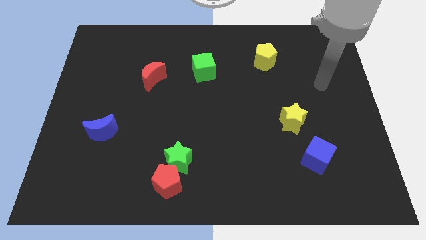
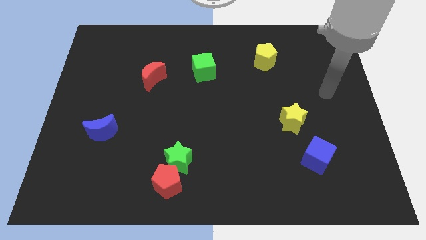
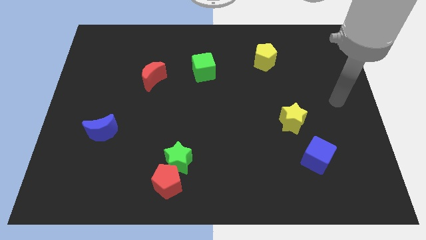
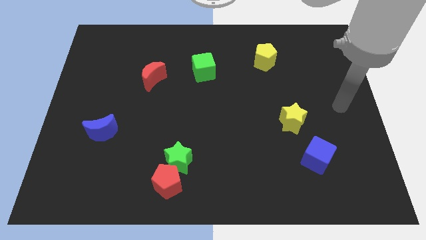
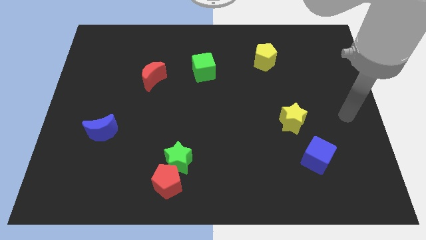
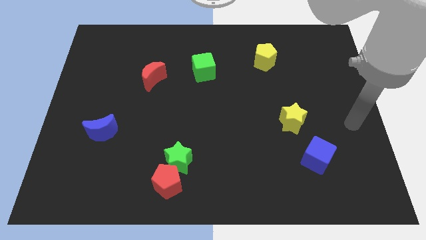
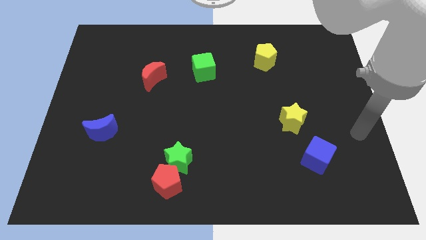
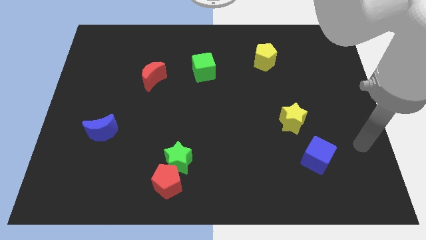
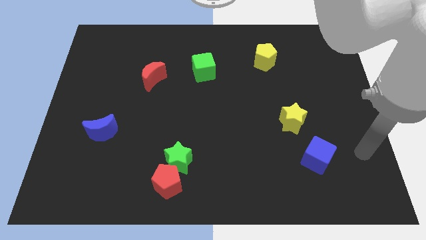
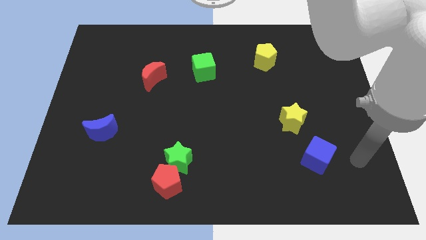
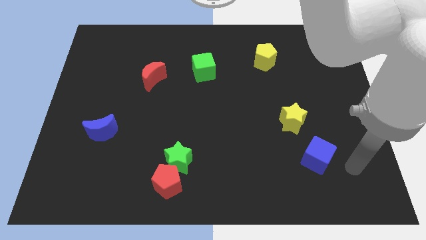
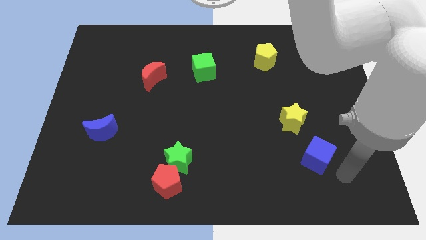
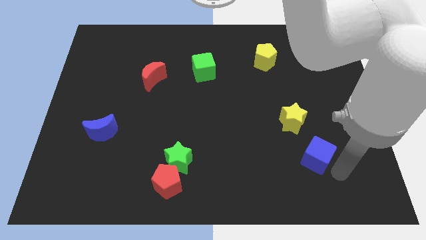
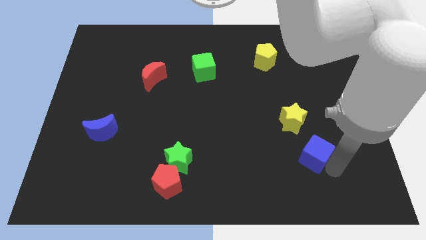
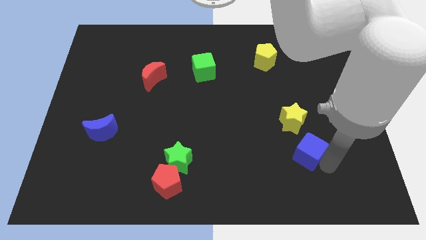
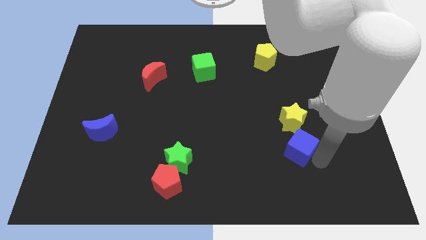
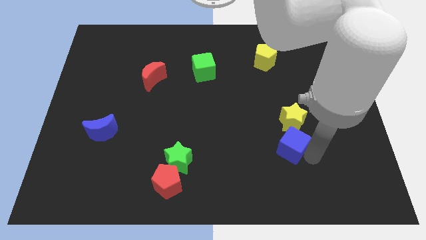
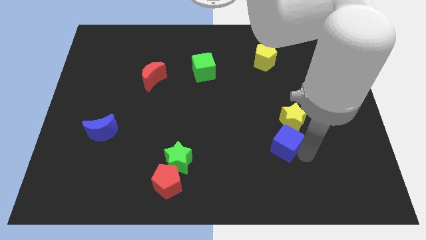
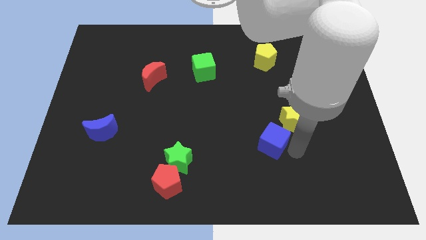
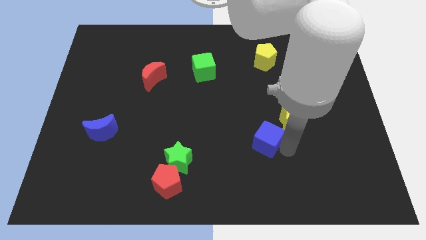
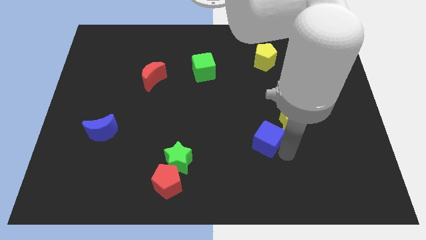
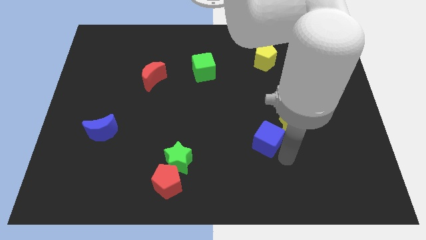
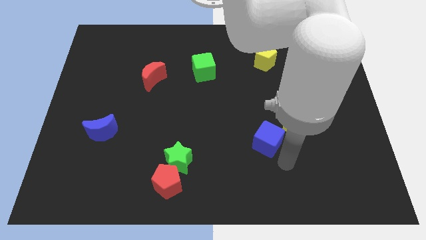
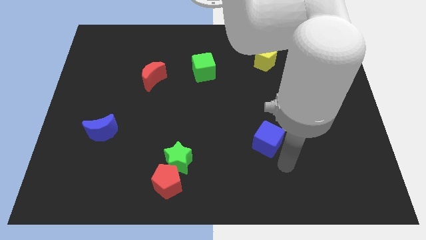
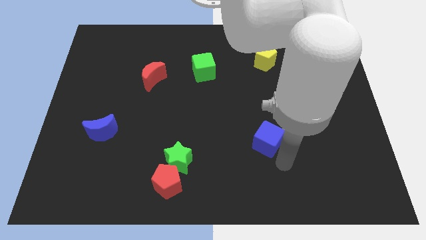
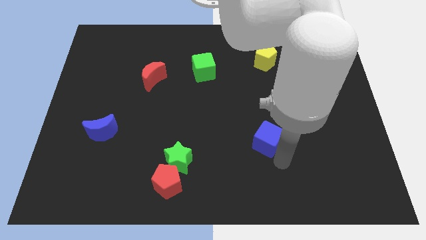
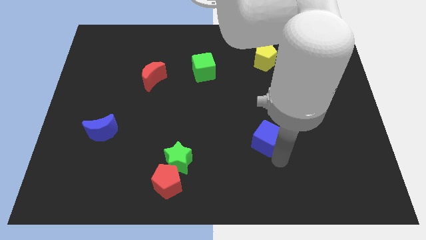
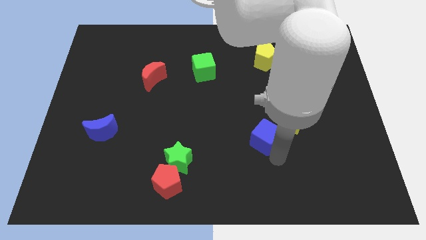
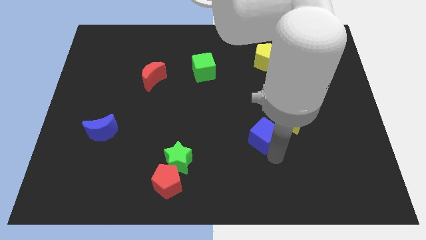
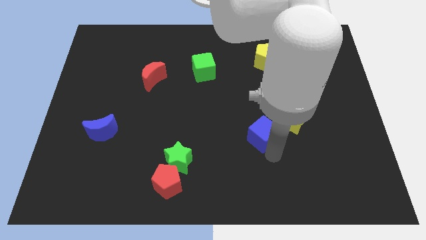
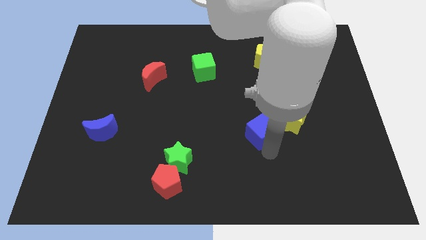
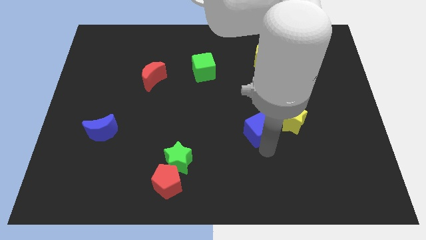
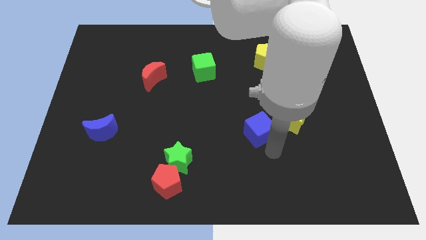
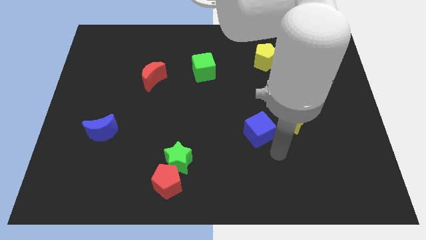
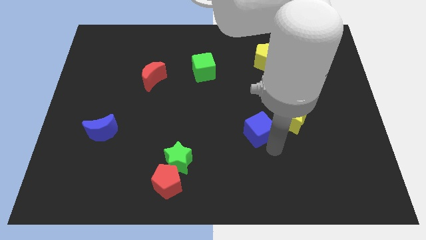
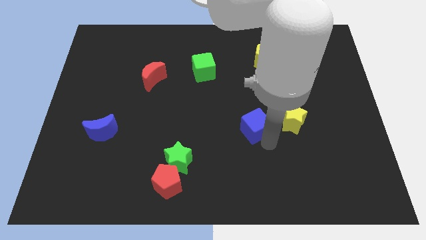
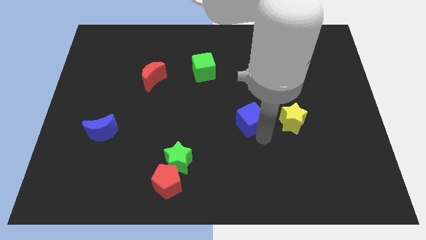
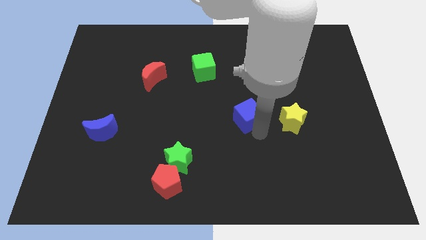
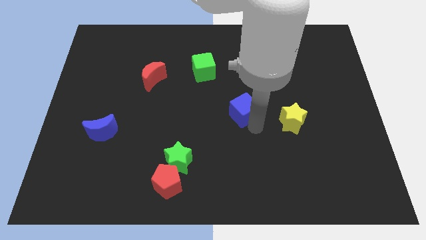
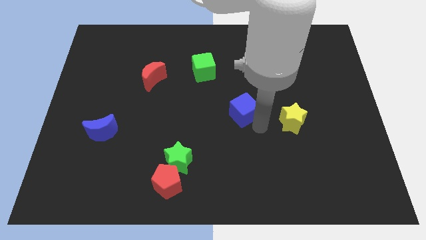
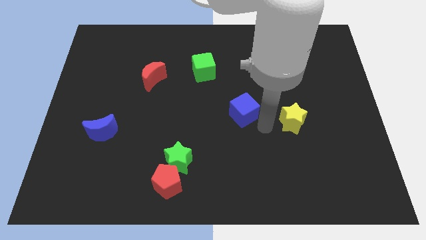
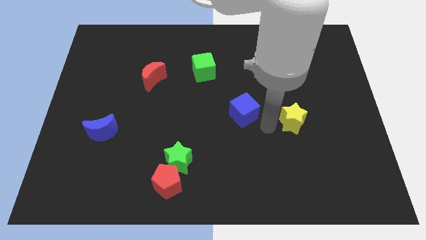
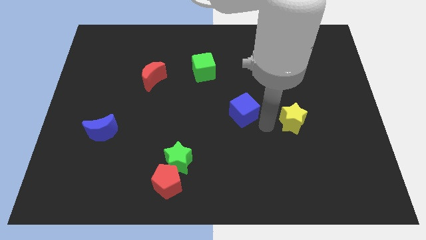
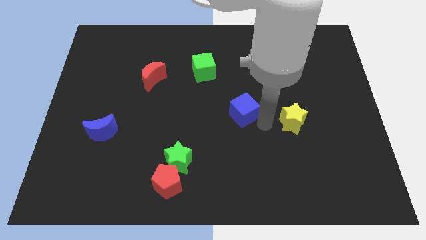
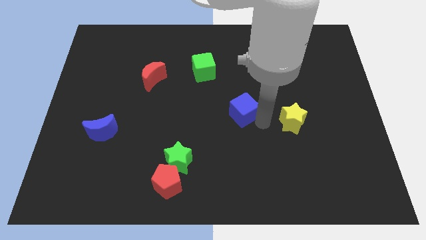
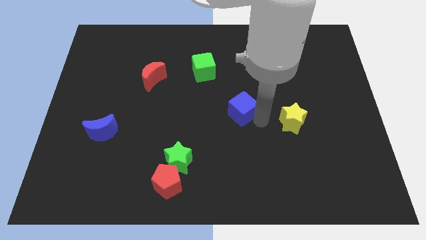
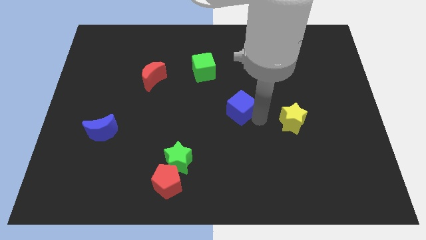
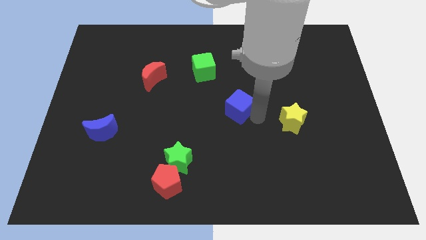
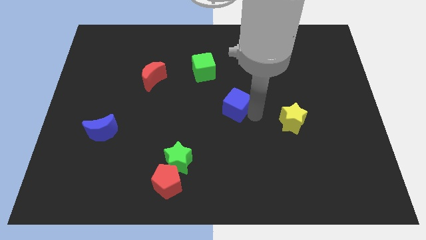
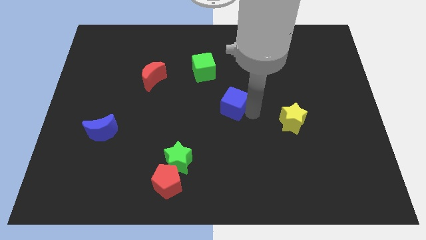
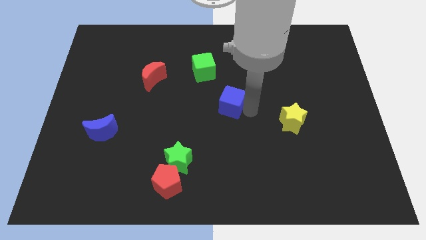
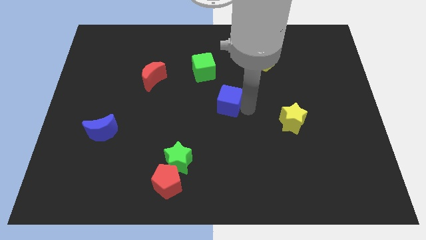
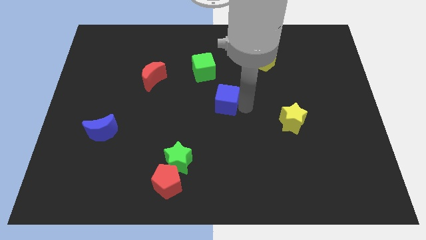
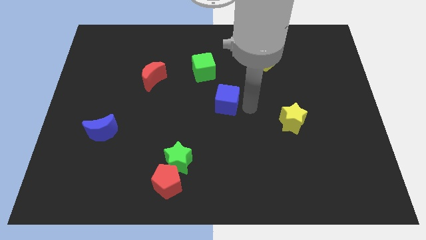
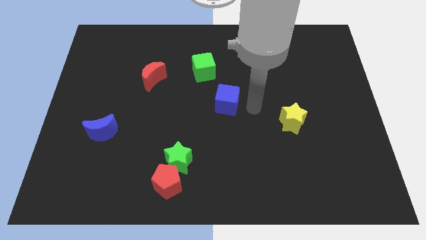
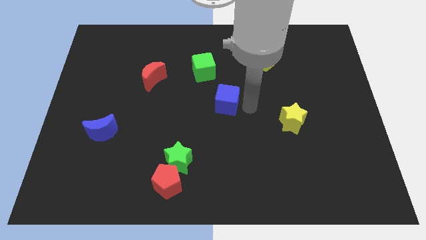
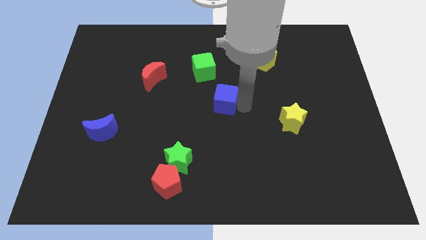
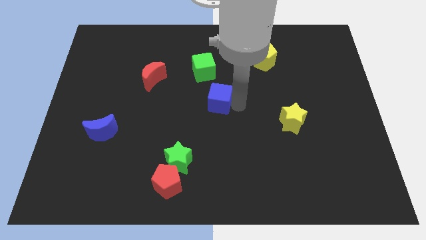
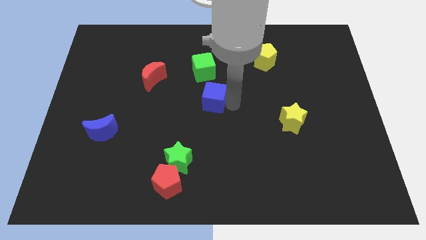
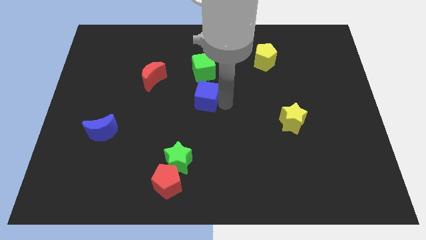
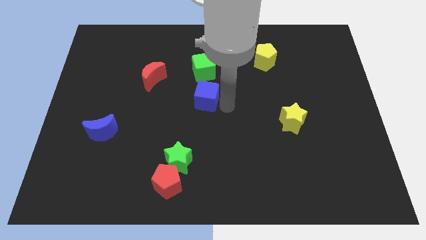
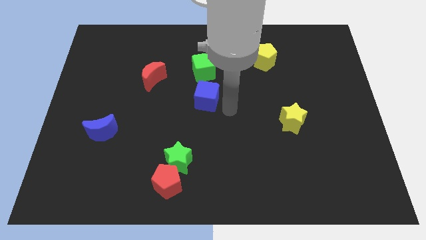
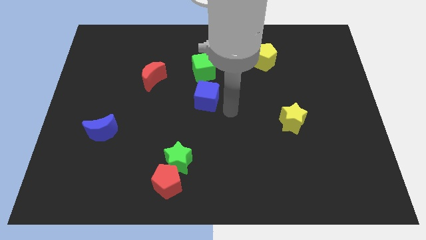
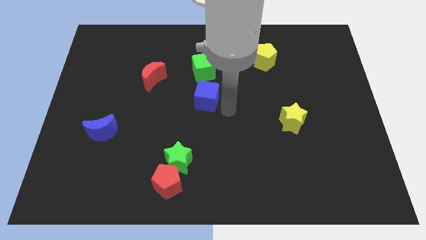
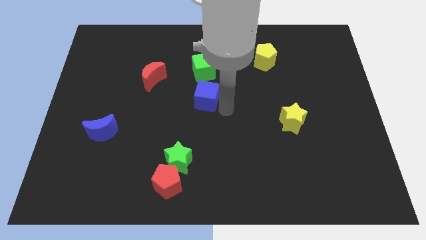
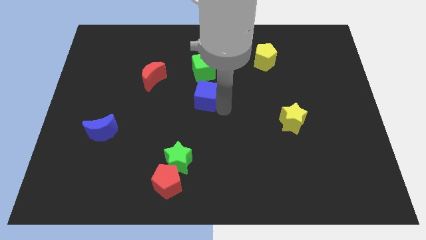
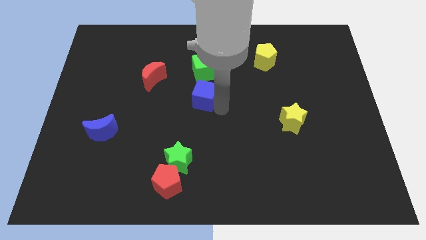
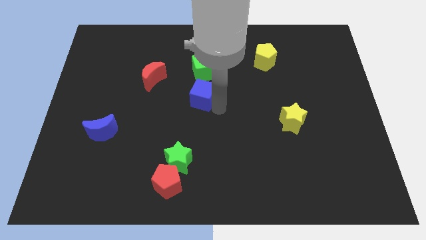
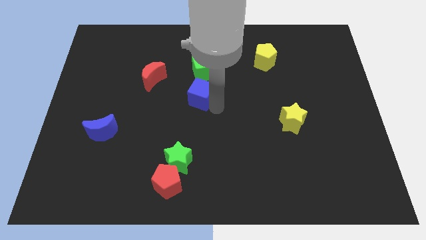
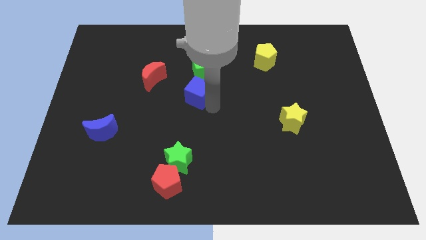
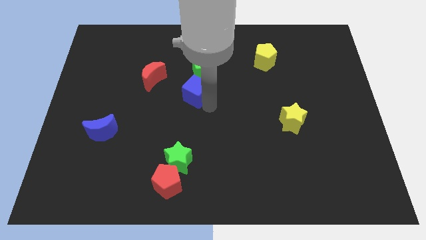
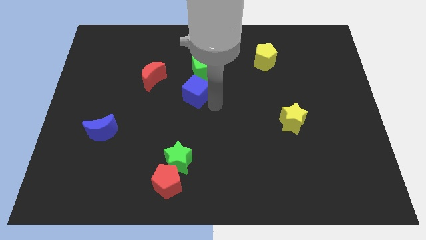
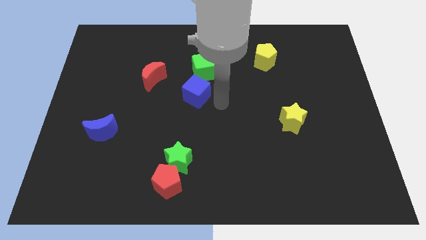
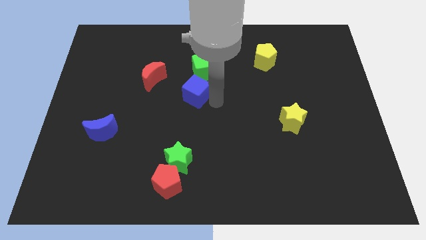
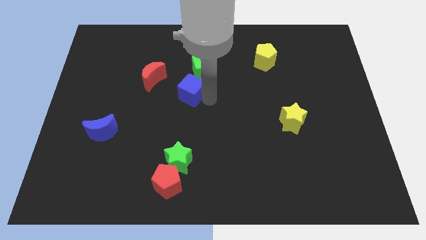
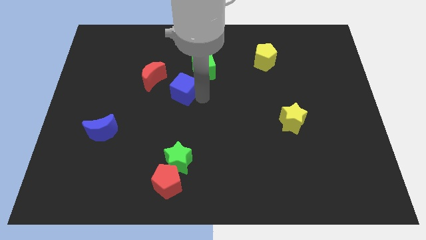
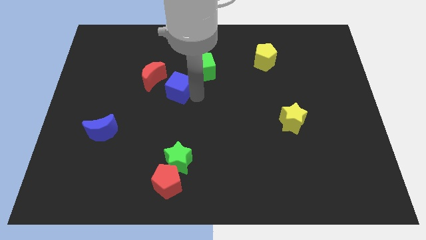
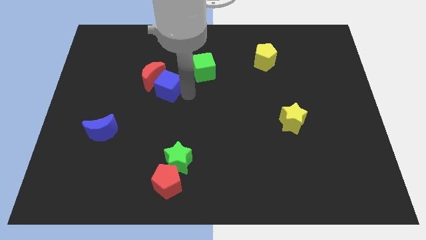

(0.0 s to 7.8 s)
put the blue cube to the red moon

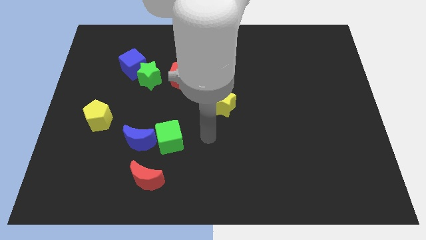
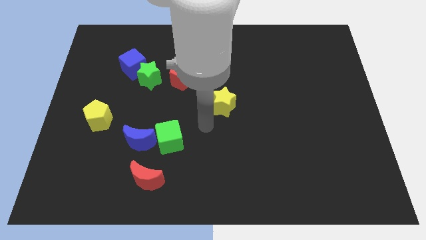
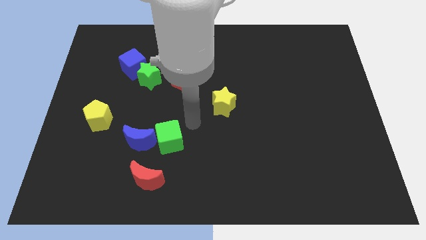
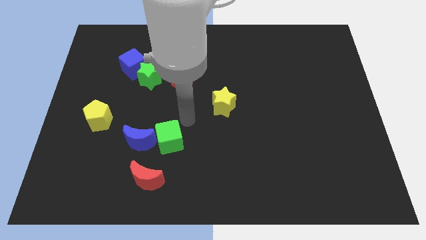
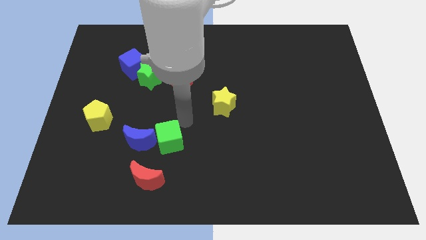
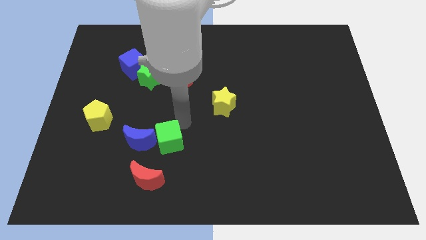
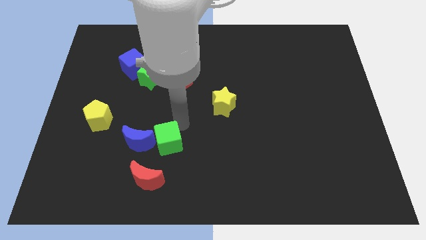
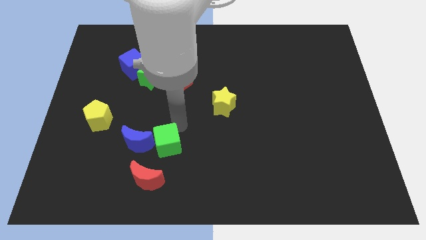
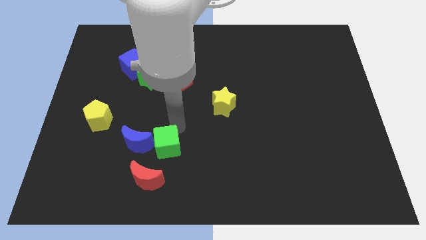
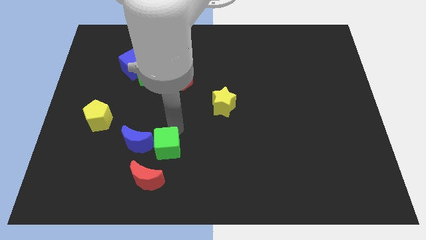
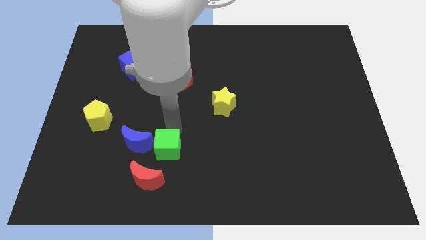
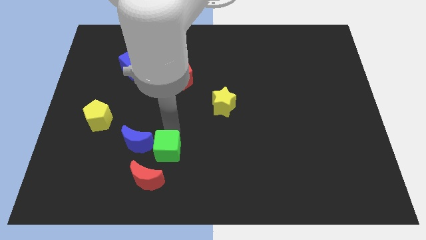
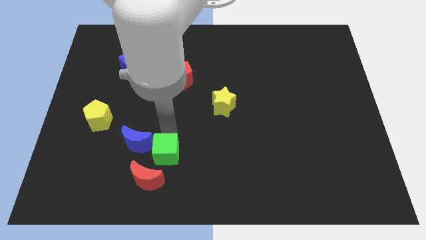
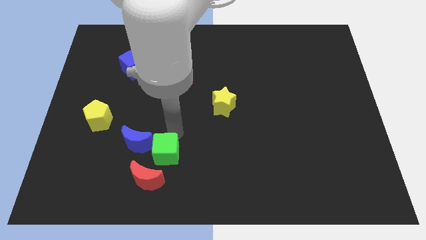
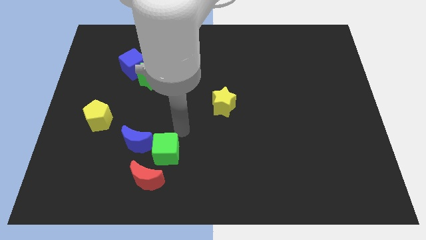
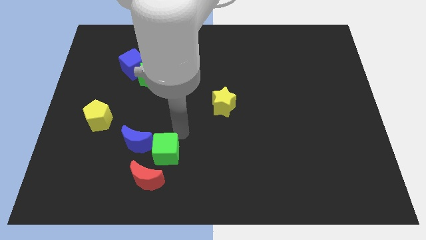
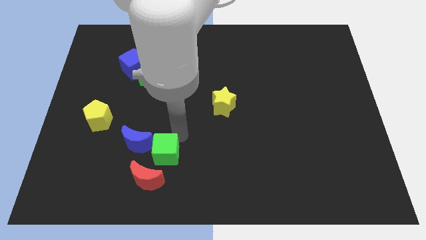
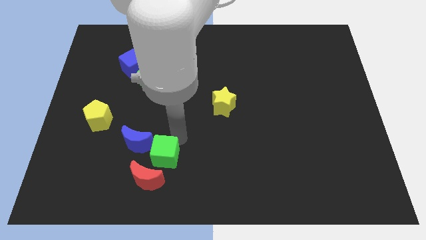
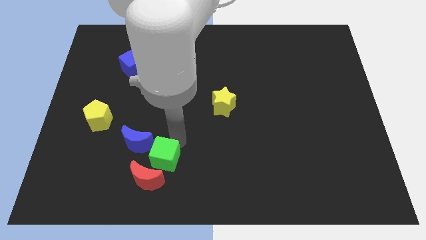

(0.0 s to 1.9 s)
slide the green cube close to the red moon
